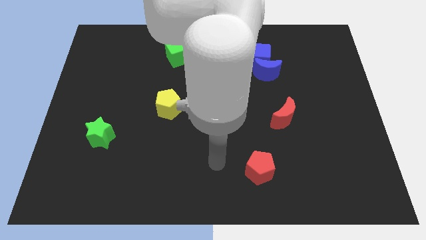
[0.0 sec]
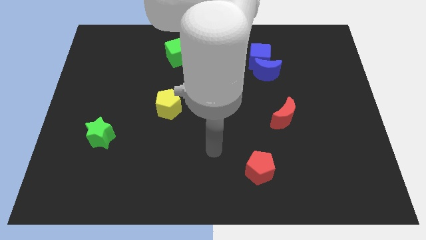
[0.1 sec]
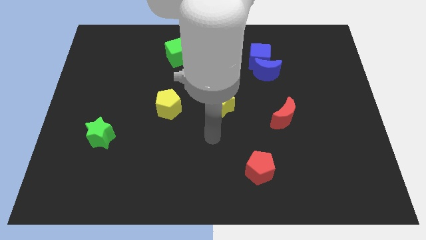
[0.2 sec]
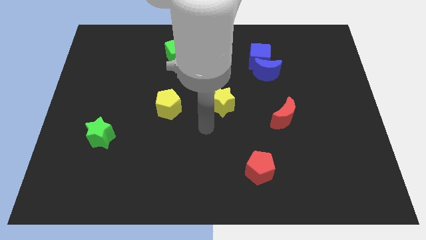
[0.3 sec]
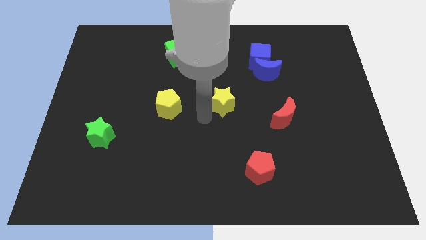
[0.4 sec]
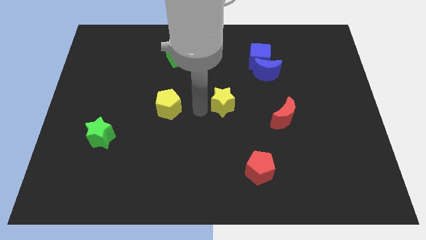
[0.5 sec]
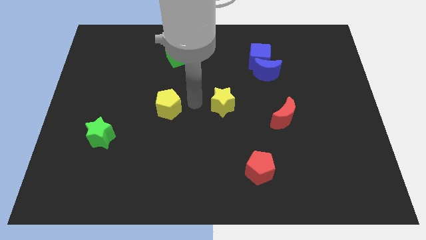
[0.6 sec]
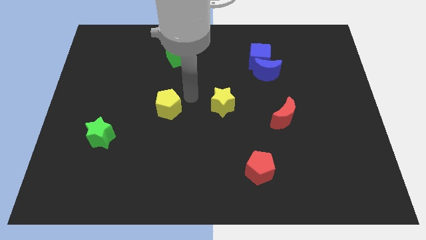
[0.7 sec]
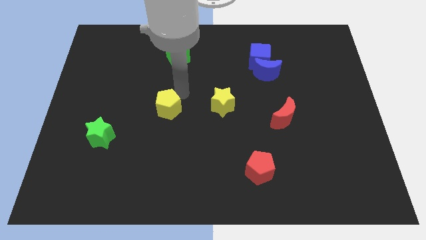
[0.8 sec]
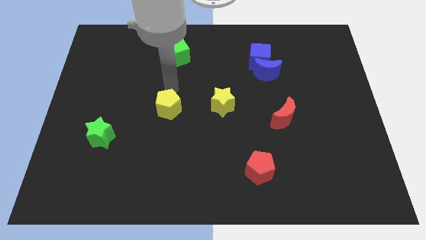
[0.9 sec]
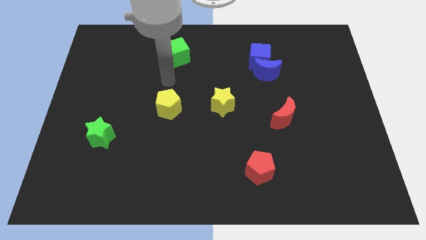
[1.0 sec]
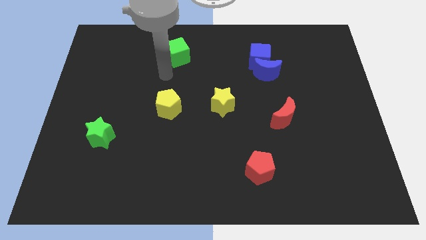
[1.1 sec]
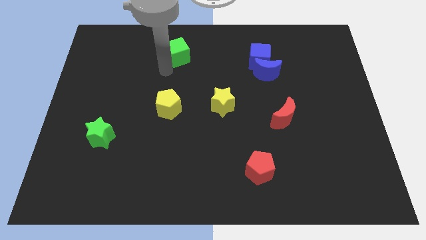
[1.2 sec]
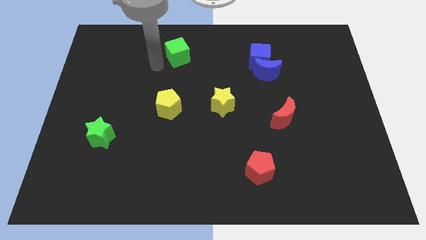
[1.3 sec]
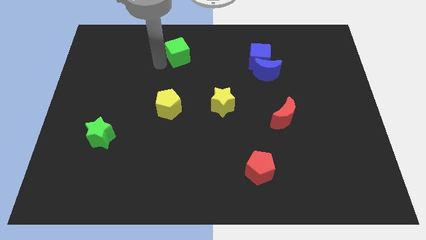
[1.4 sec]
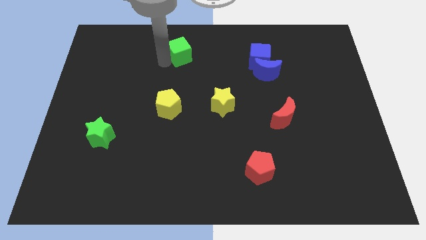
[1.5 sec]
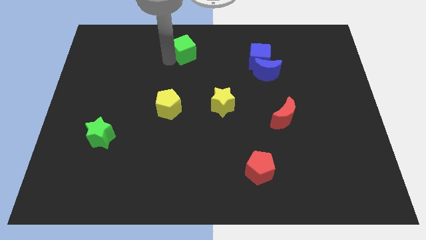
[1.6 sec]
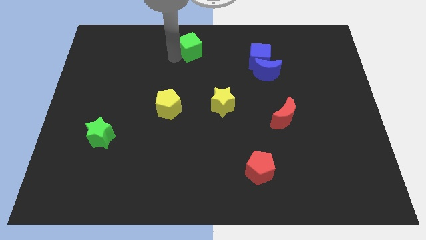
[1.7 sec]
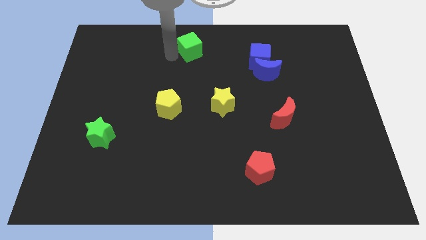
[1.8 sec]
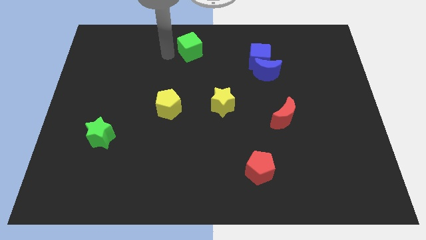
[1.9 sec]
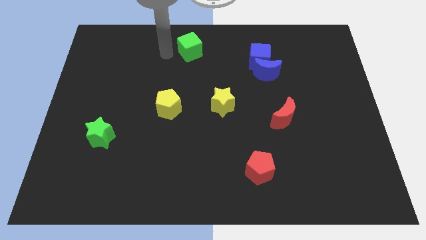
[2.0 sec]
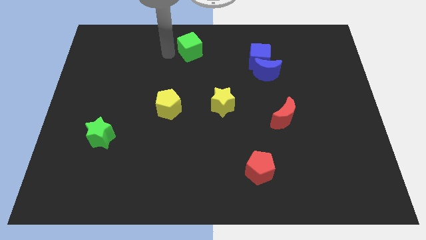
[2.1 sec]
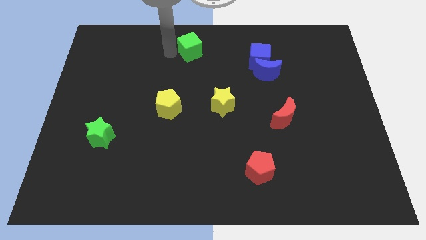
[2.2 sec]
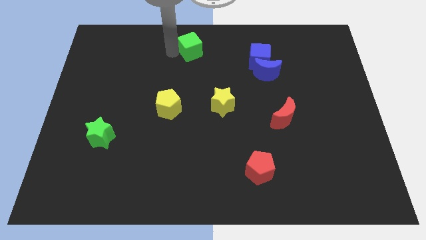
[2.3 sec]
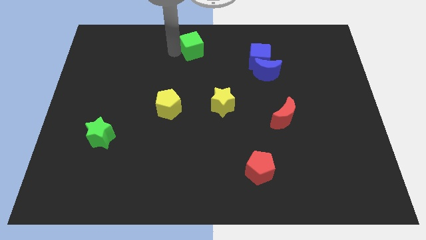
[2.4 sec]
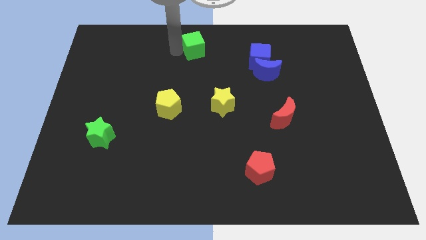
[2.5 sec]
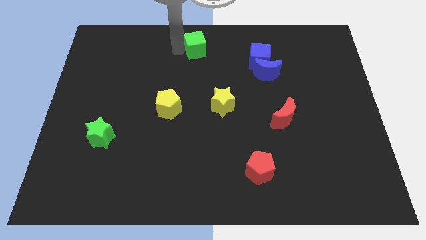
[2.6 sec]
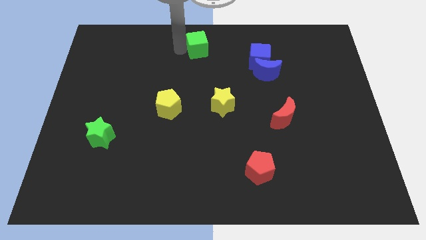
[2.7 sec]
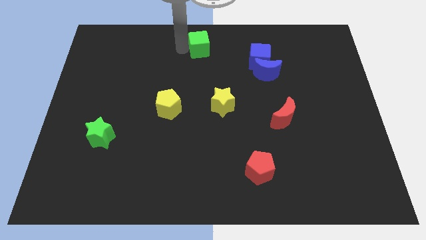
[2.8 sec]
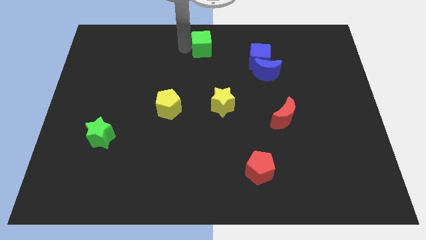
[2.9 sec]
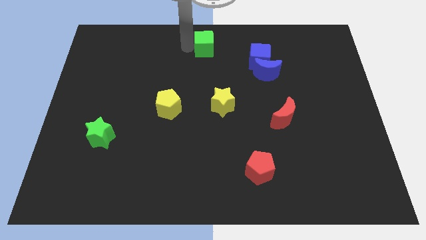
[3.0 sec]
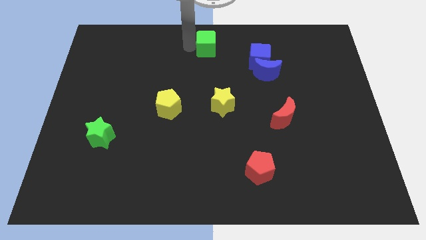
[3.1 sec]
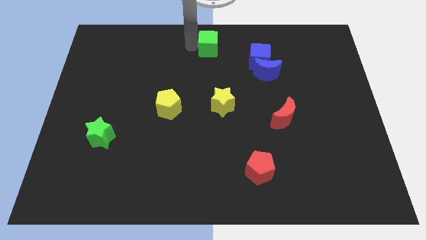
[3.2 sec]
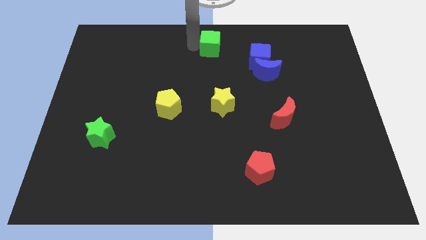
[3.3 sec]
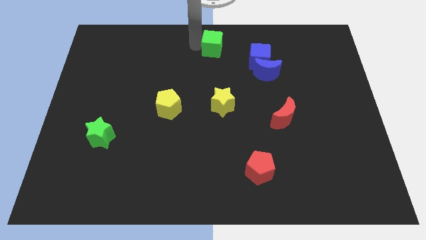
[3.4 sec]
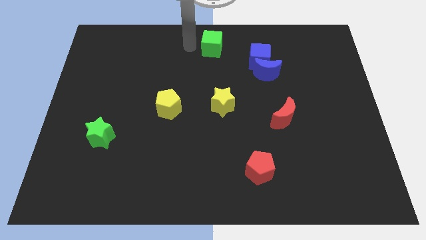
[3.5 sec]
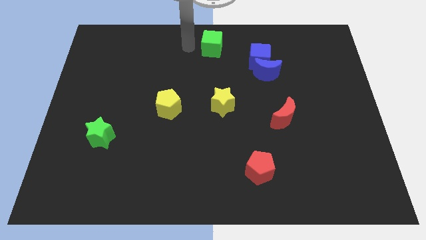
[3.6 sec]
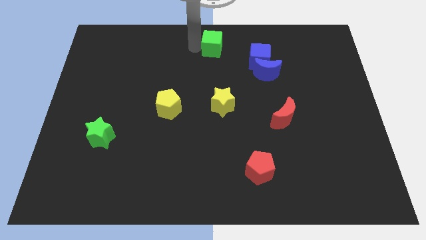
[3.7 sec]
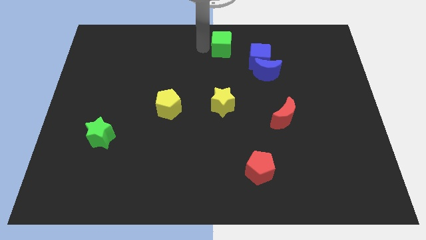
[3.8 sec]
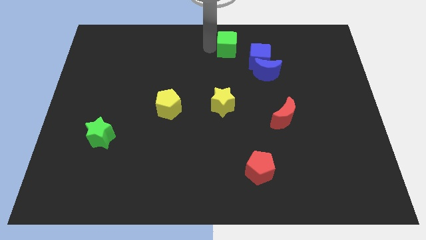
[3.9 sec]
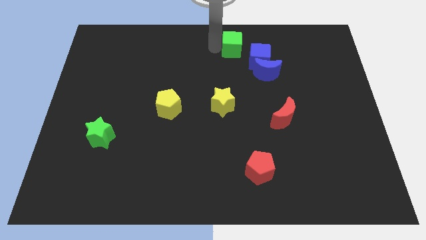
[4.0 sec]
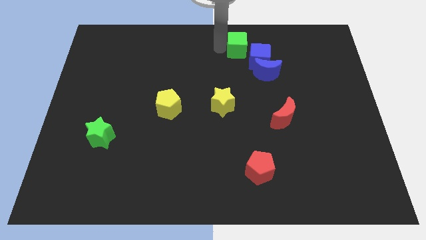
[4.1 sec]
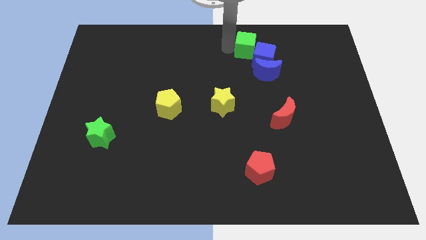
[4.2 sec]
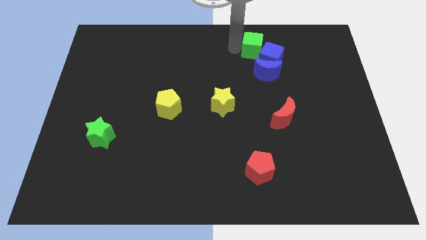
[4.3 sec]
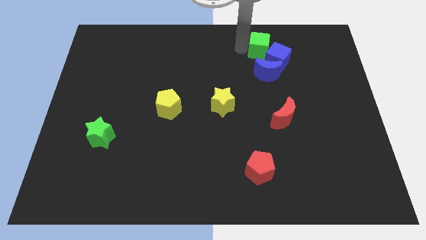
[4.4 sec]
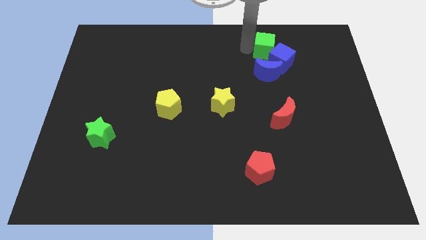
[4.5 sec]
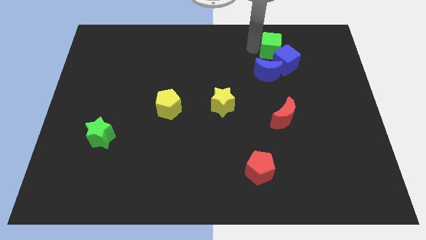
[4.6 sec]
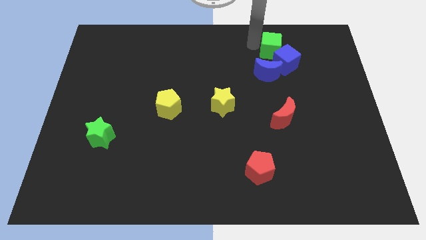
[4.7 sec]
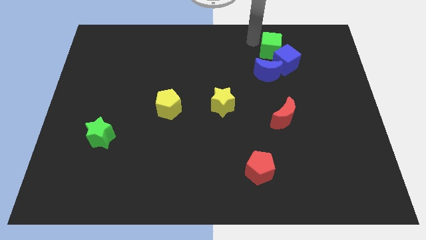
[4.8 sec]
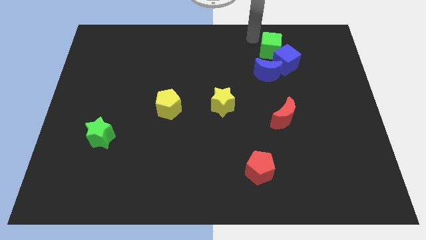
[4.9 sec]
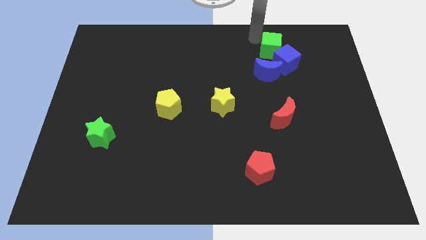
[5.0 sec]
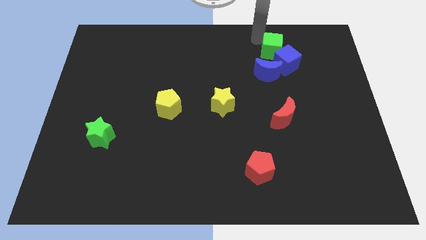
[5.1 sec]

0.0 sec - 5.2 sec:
push the green cube to the top right of the blue moon

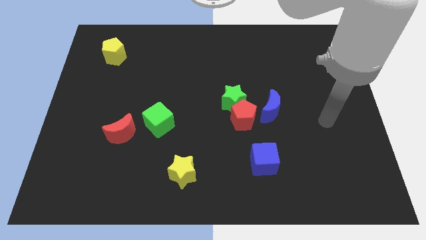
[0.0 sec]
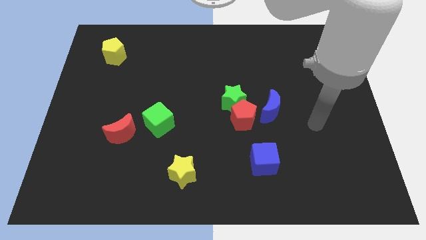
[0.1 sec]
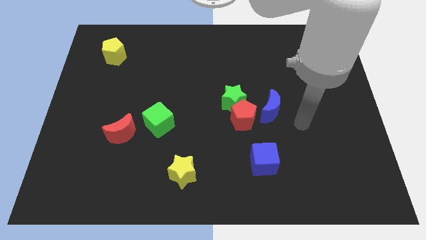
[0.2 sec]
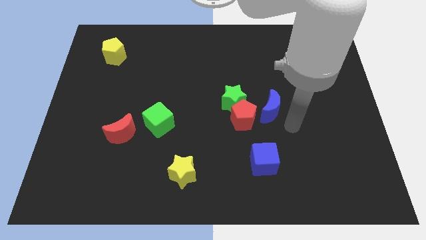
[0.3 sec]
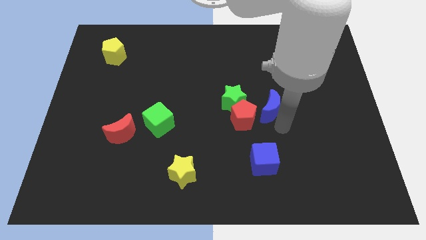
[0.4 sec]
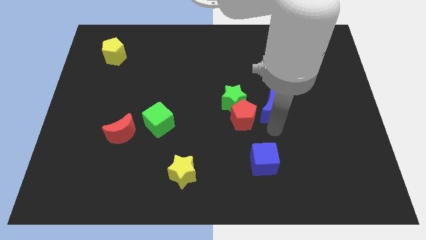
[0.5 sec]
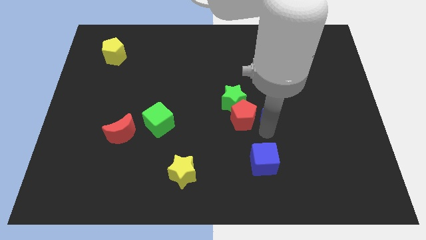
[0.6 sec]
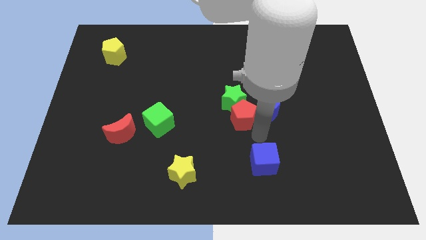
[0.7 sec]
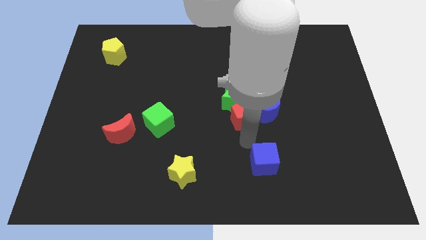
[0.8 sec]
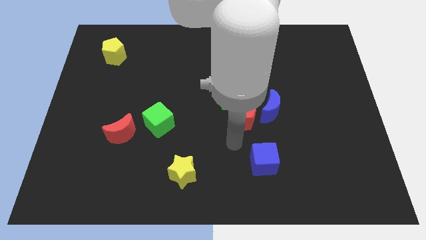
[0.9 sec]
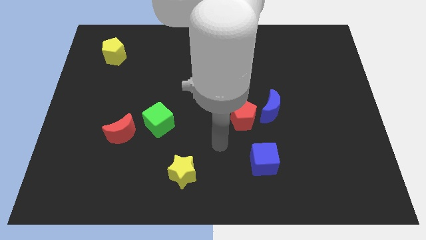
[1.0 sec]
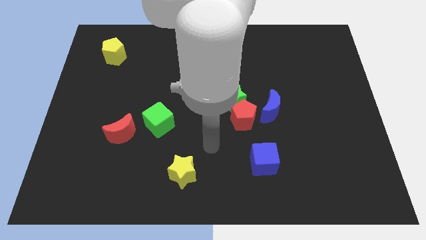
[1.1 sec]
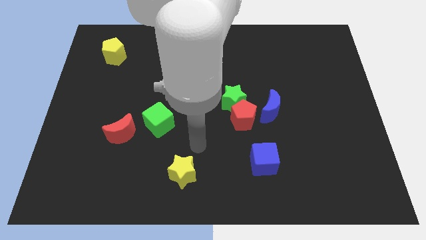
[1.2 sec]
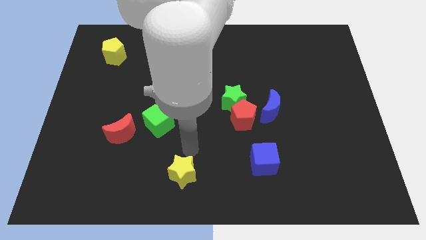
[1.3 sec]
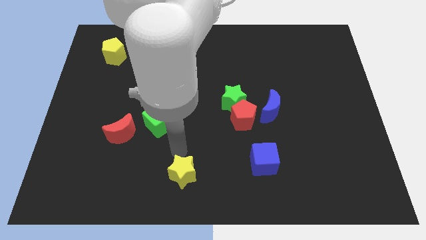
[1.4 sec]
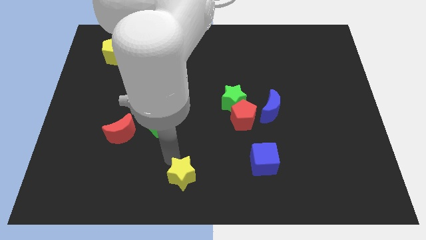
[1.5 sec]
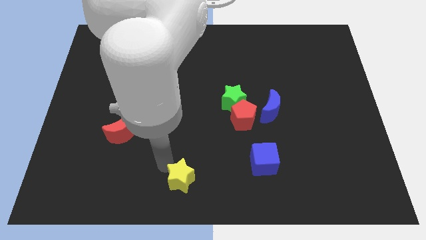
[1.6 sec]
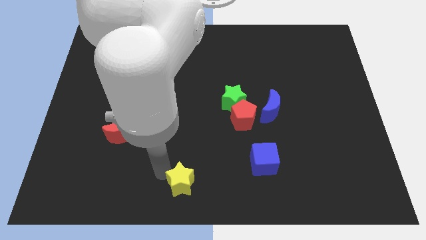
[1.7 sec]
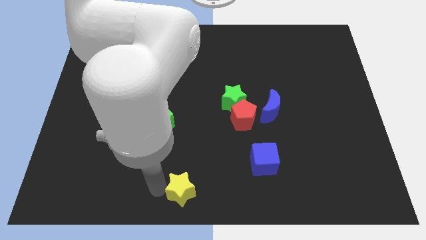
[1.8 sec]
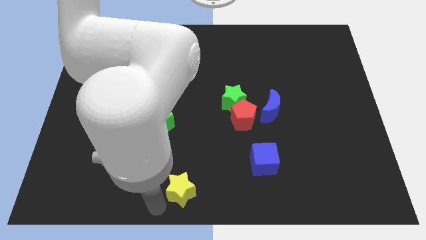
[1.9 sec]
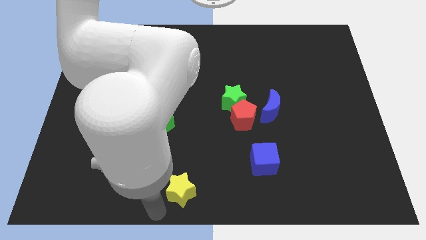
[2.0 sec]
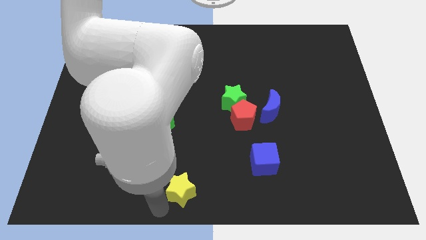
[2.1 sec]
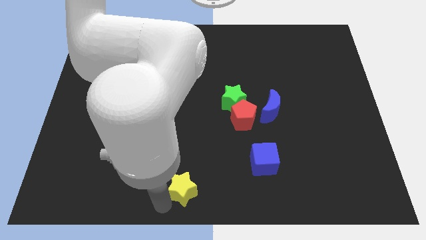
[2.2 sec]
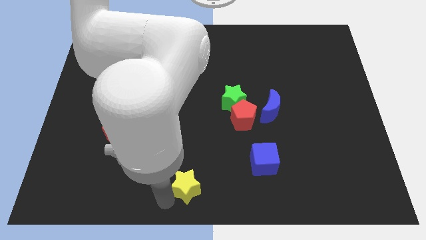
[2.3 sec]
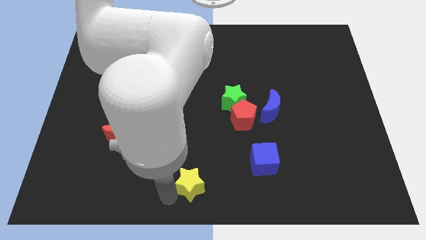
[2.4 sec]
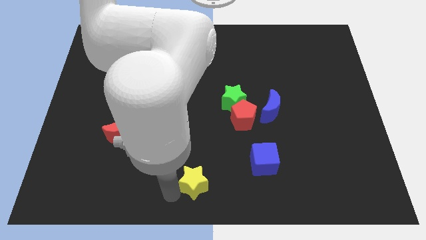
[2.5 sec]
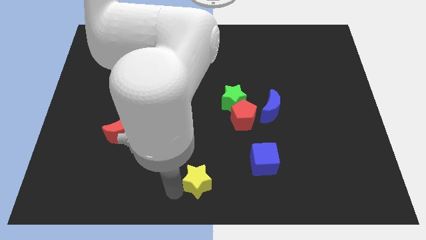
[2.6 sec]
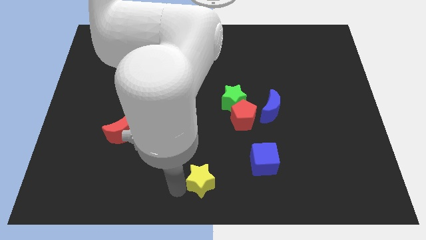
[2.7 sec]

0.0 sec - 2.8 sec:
move the yellow star left of the blue cube
